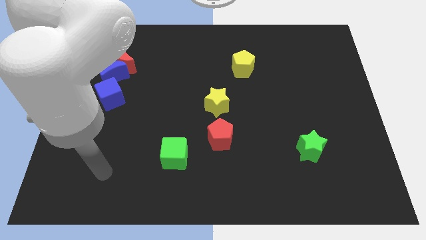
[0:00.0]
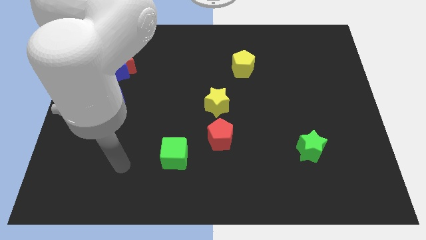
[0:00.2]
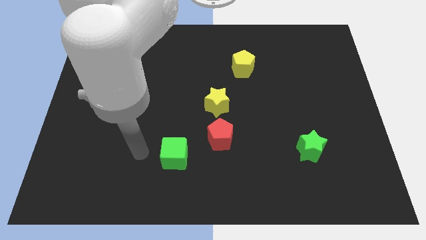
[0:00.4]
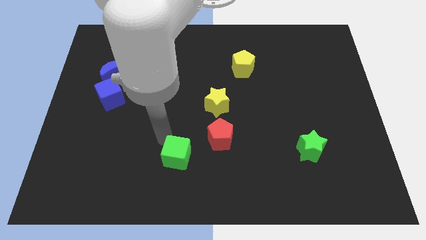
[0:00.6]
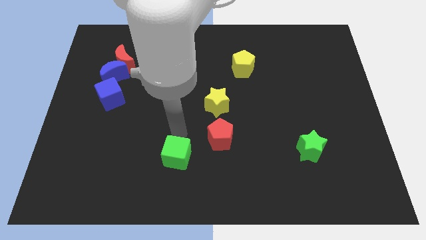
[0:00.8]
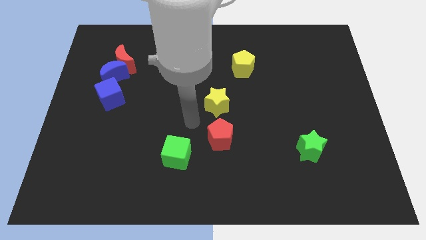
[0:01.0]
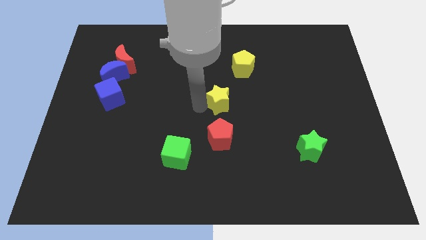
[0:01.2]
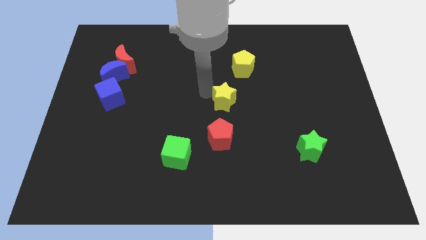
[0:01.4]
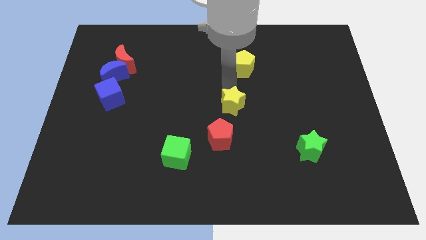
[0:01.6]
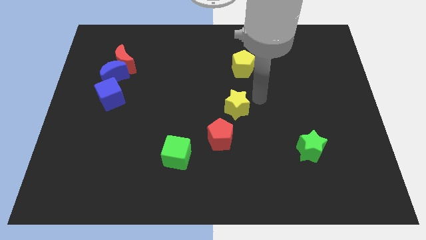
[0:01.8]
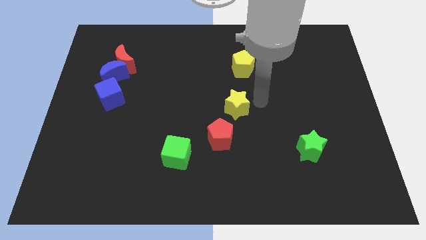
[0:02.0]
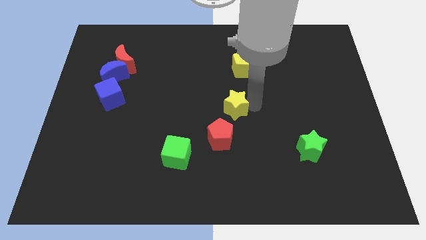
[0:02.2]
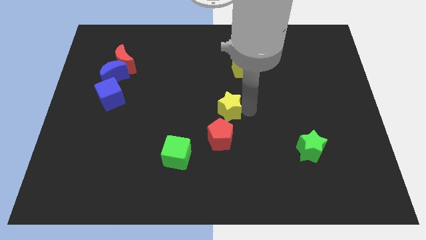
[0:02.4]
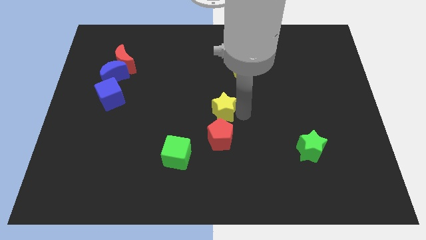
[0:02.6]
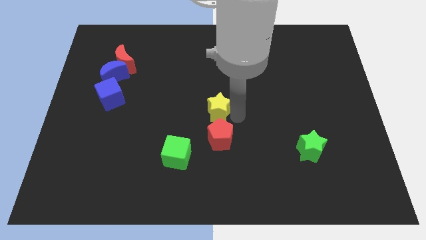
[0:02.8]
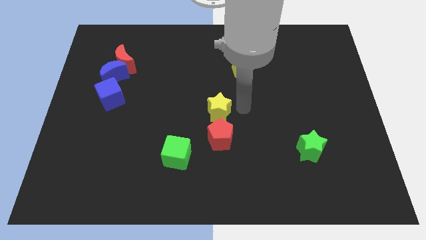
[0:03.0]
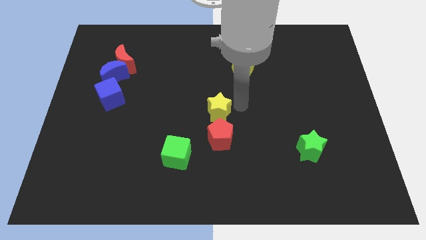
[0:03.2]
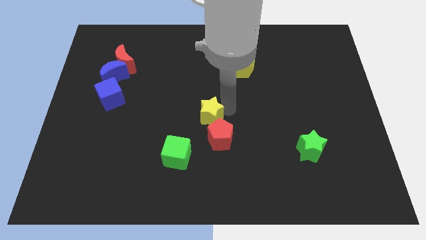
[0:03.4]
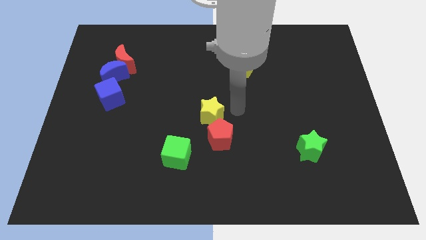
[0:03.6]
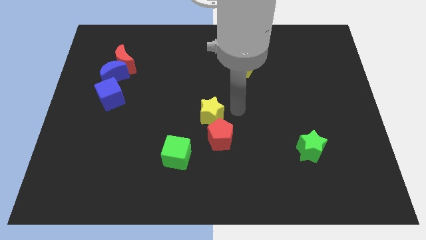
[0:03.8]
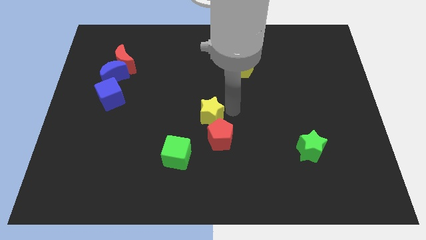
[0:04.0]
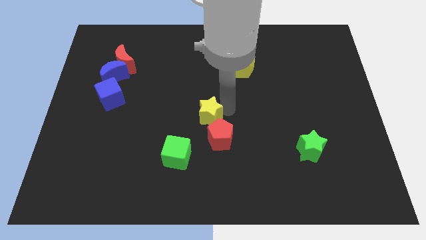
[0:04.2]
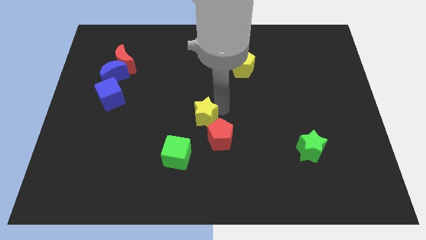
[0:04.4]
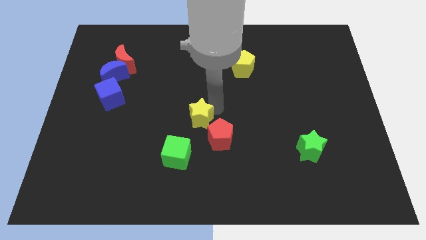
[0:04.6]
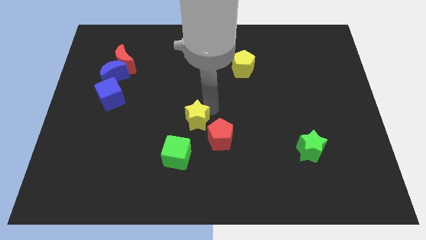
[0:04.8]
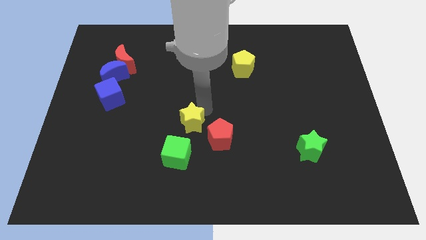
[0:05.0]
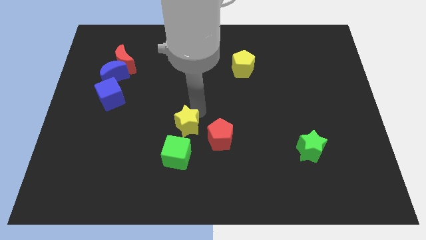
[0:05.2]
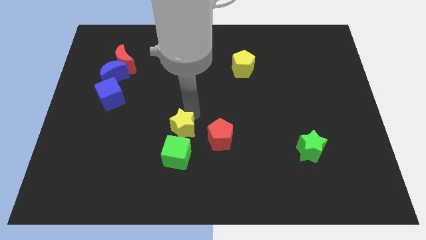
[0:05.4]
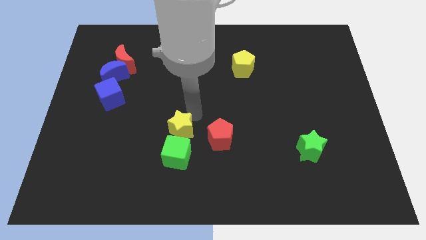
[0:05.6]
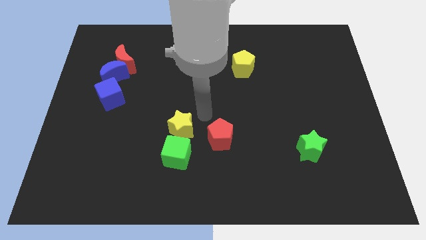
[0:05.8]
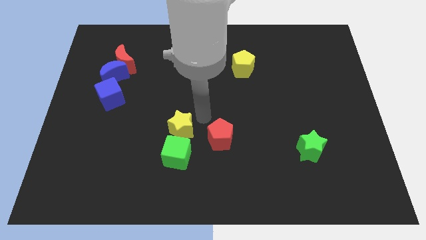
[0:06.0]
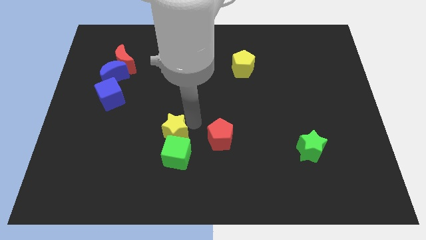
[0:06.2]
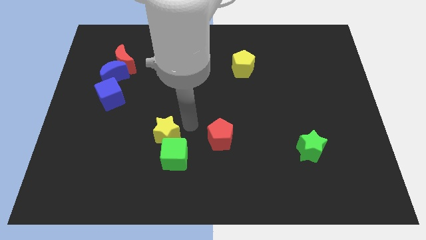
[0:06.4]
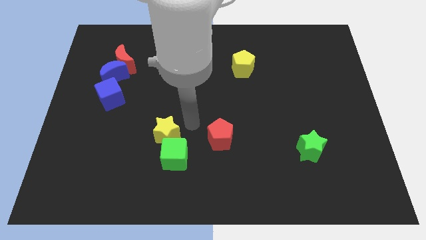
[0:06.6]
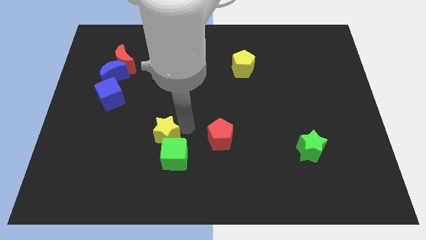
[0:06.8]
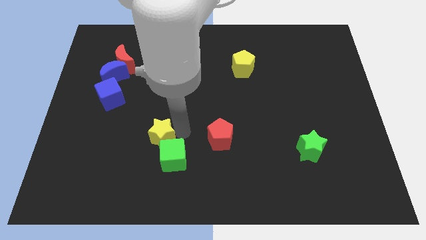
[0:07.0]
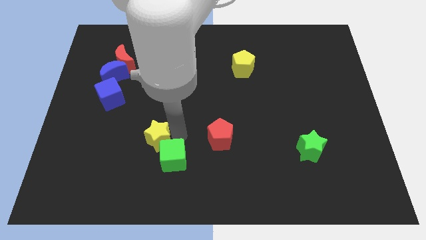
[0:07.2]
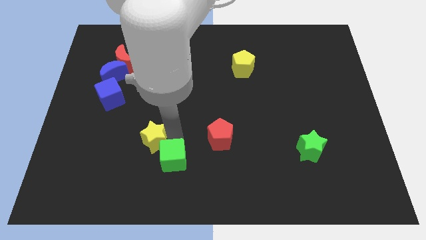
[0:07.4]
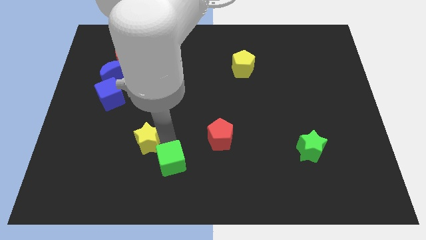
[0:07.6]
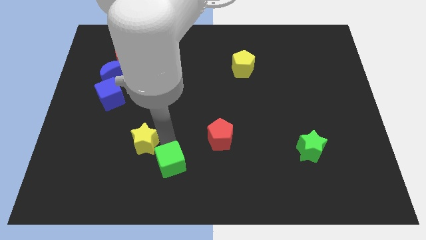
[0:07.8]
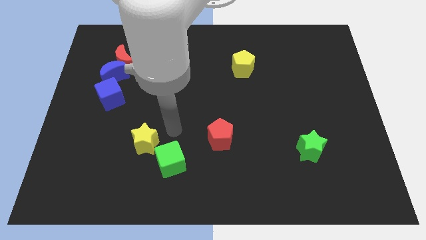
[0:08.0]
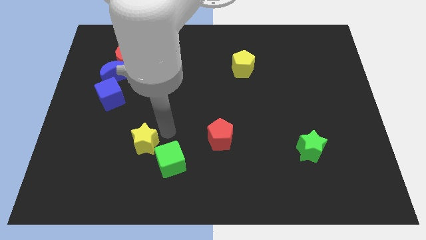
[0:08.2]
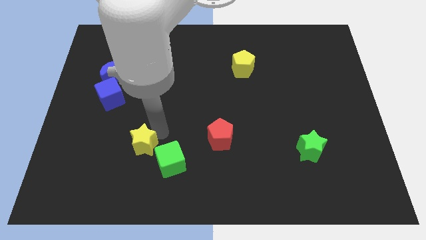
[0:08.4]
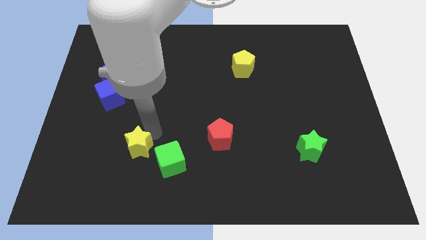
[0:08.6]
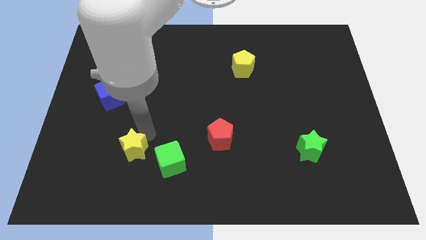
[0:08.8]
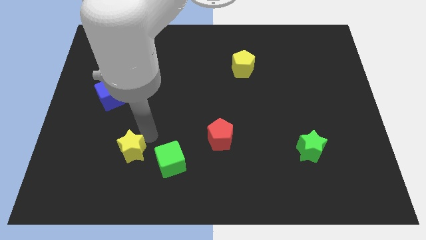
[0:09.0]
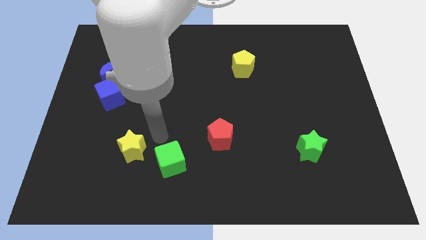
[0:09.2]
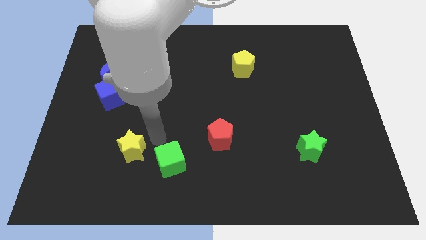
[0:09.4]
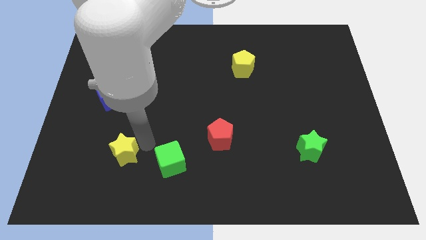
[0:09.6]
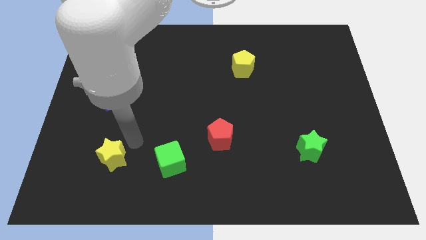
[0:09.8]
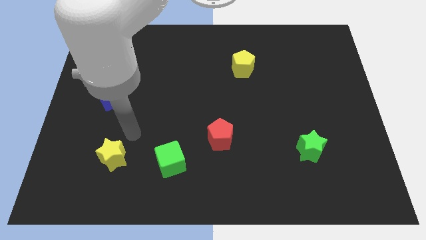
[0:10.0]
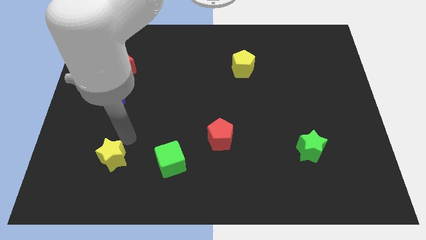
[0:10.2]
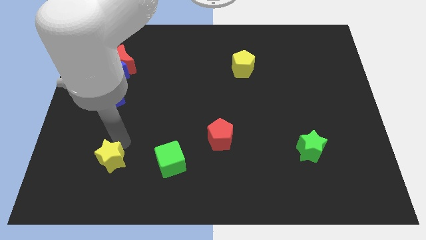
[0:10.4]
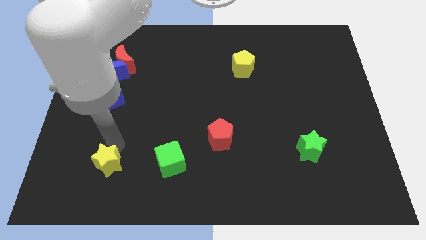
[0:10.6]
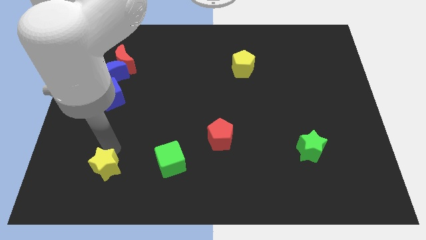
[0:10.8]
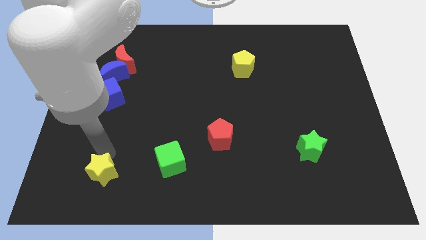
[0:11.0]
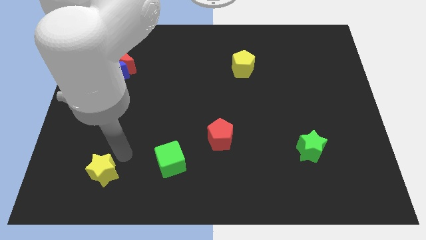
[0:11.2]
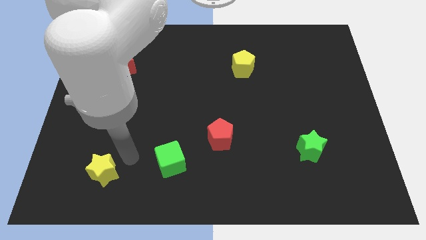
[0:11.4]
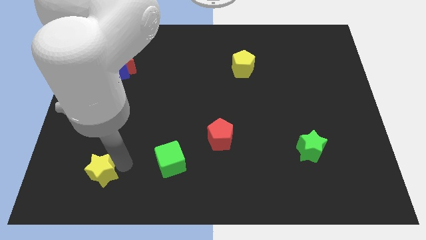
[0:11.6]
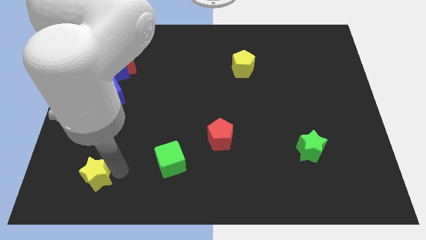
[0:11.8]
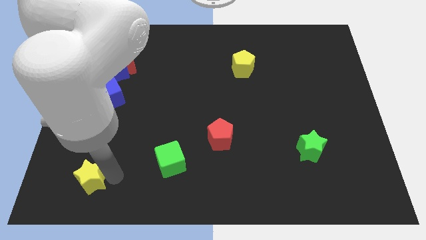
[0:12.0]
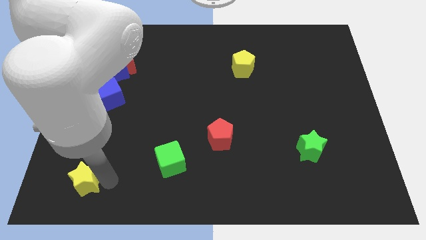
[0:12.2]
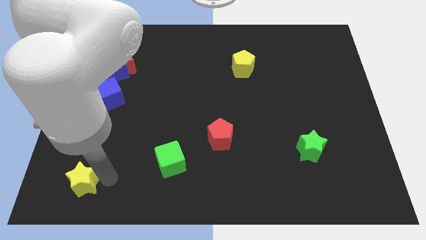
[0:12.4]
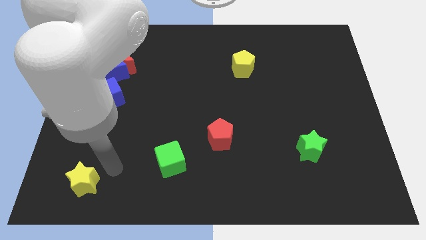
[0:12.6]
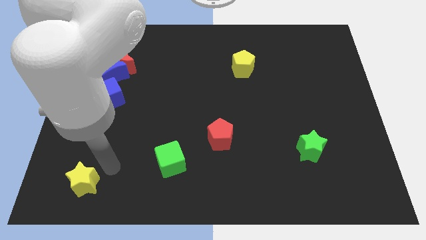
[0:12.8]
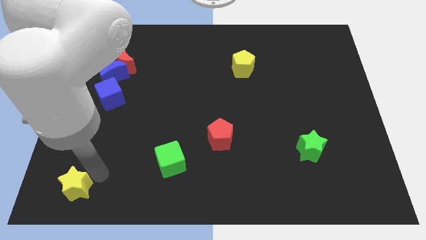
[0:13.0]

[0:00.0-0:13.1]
move the yellow star to the bottom left corner
